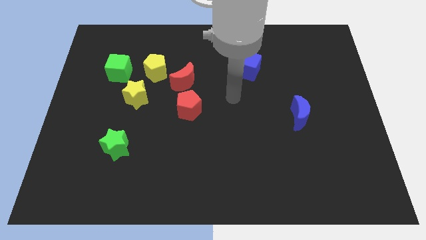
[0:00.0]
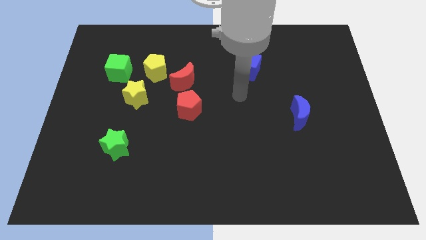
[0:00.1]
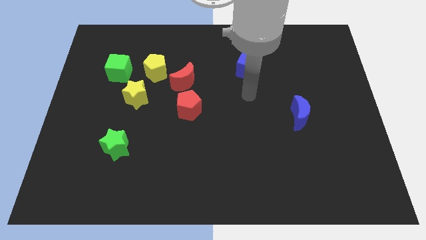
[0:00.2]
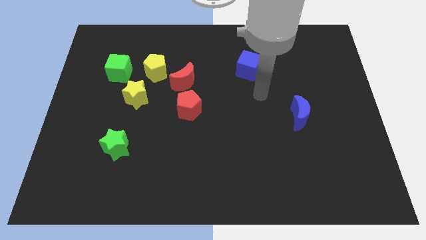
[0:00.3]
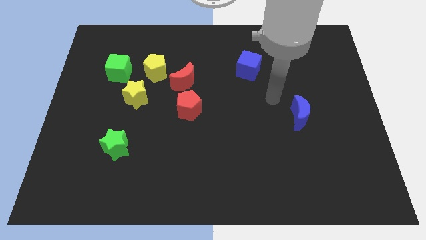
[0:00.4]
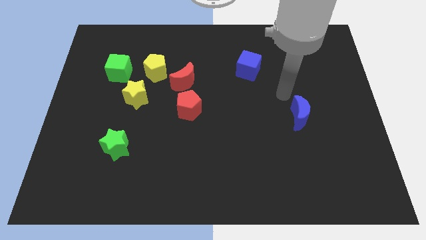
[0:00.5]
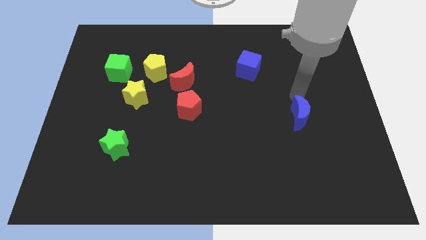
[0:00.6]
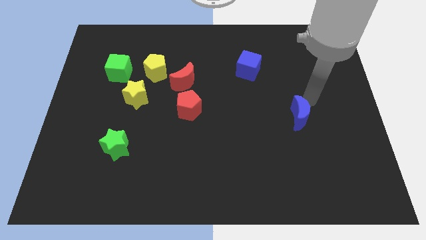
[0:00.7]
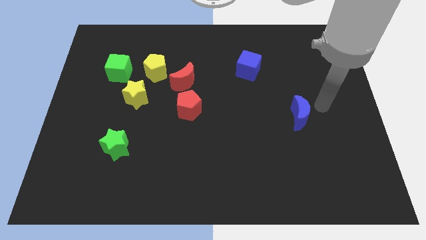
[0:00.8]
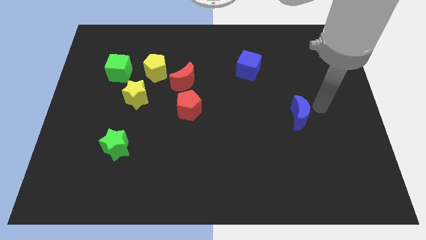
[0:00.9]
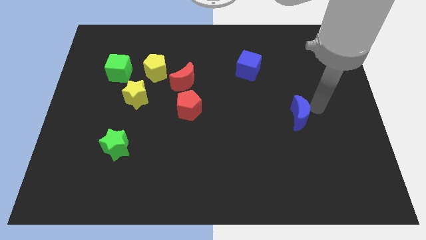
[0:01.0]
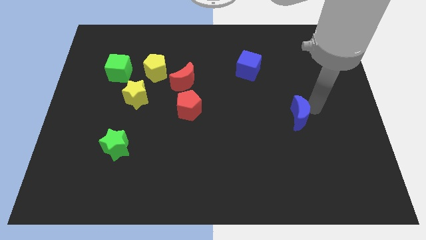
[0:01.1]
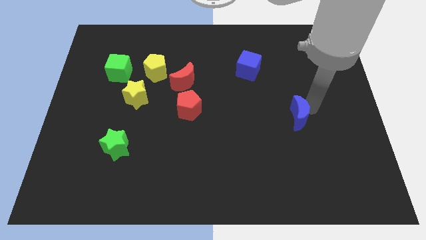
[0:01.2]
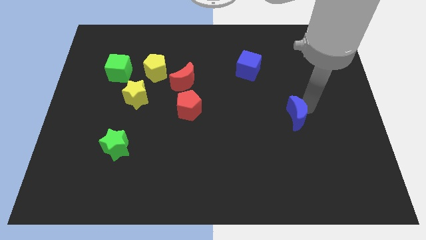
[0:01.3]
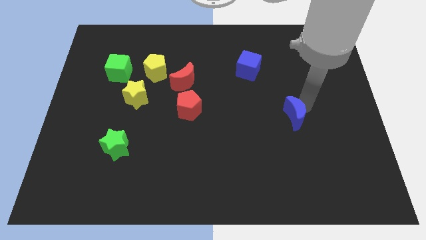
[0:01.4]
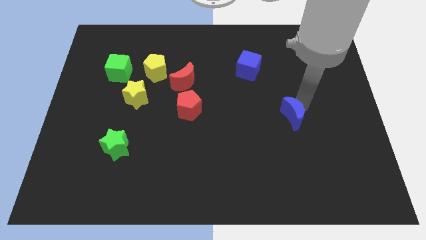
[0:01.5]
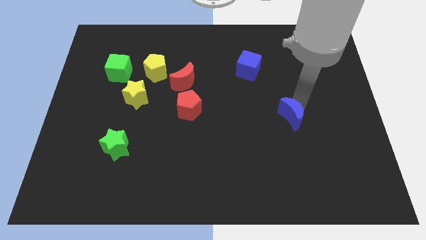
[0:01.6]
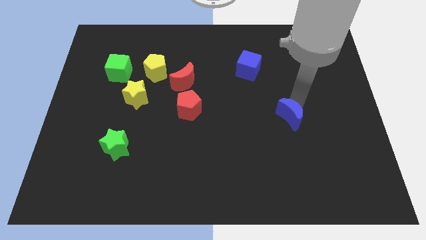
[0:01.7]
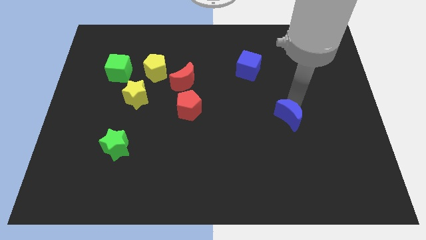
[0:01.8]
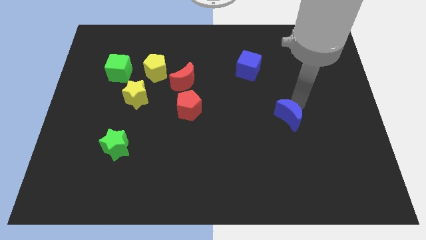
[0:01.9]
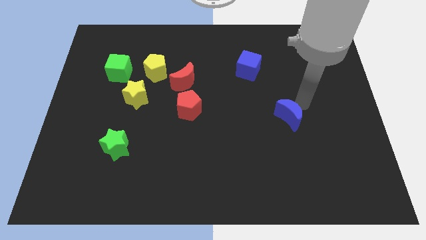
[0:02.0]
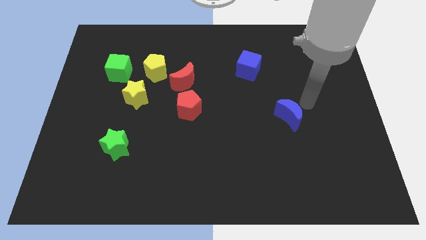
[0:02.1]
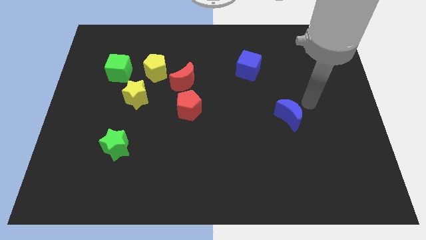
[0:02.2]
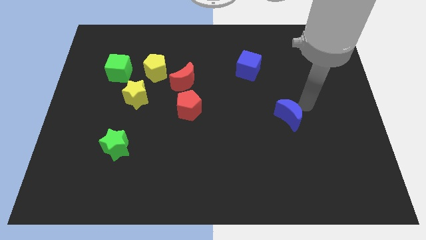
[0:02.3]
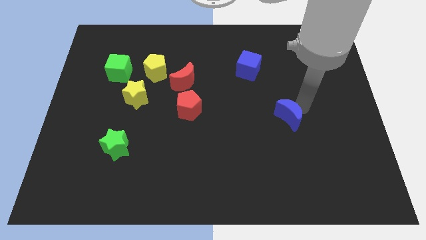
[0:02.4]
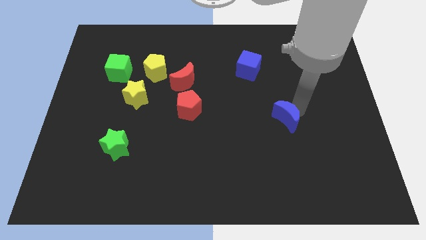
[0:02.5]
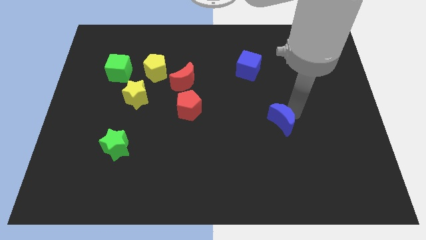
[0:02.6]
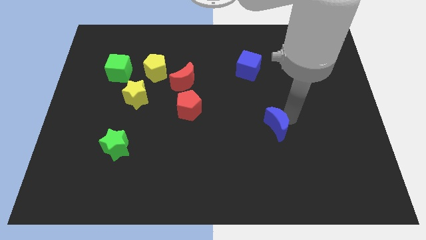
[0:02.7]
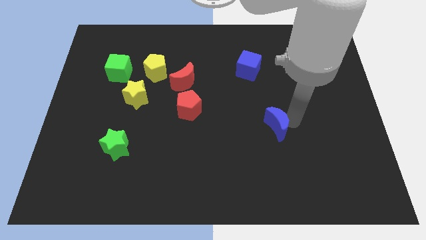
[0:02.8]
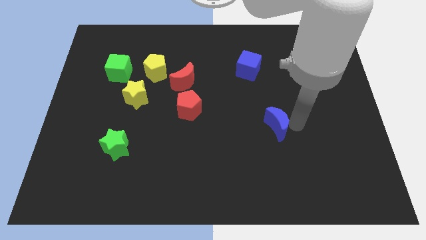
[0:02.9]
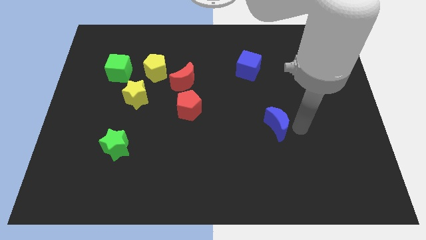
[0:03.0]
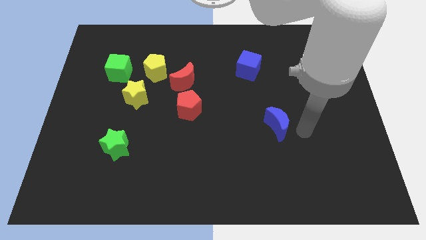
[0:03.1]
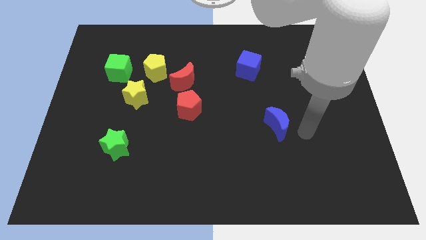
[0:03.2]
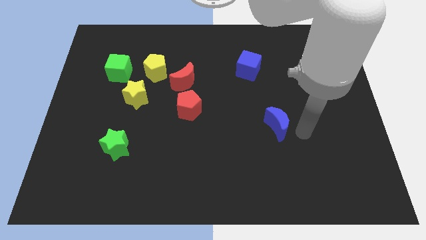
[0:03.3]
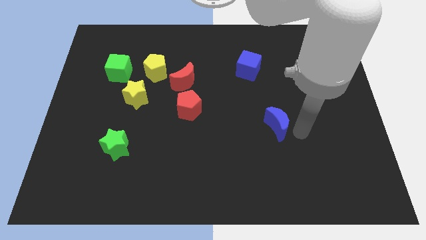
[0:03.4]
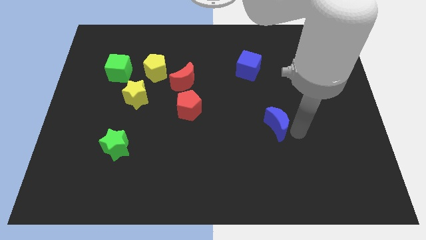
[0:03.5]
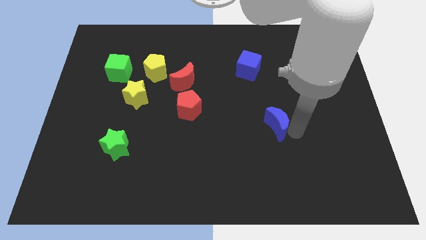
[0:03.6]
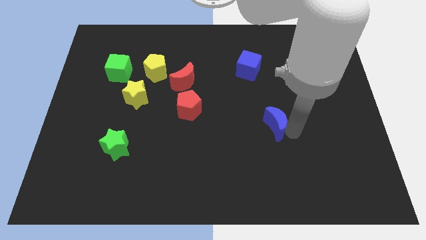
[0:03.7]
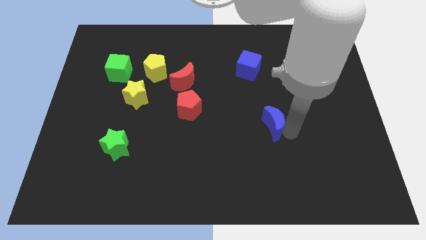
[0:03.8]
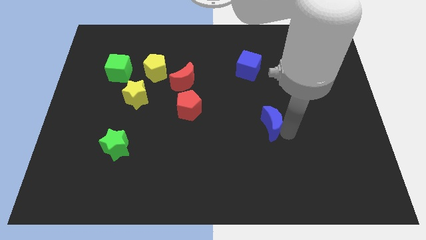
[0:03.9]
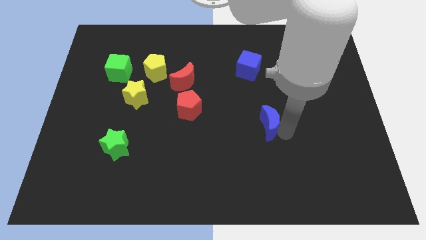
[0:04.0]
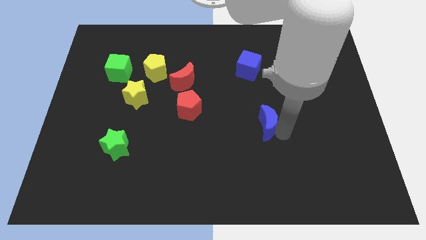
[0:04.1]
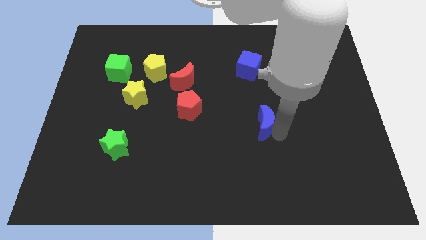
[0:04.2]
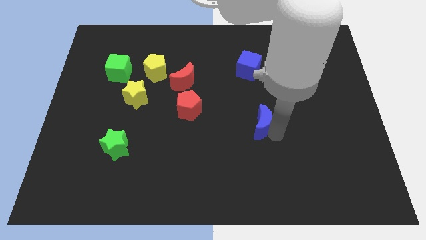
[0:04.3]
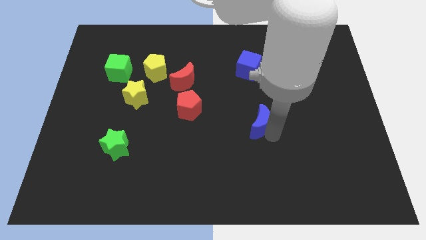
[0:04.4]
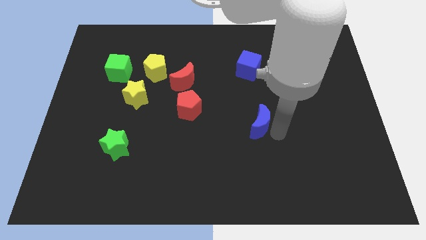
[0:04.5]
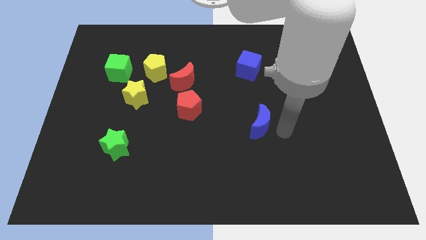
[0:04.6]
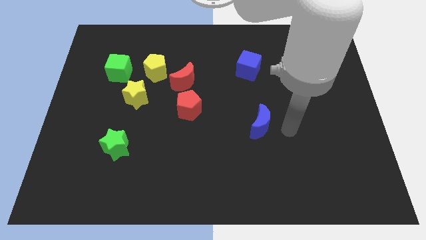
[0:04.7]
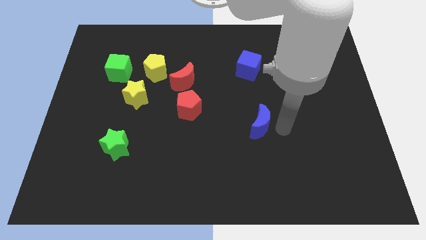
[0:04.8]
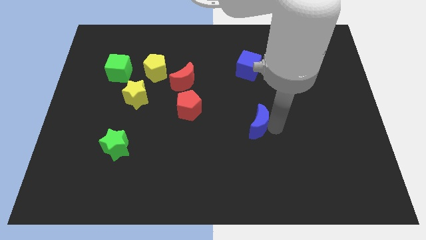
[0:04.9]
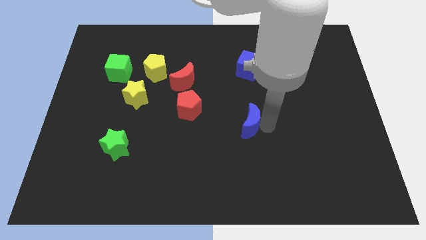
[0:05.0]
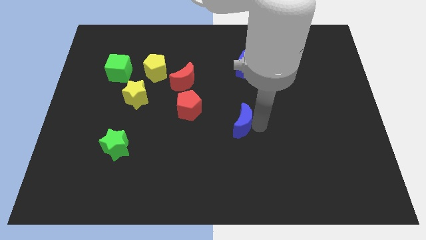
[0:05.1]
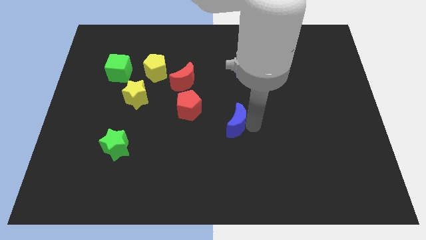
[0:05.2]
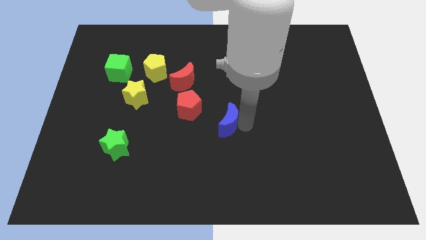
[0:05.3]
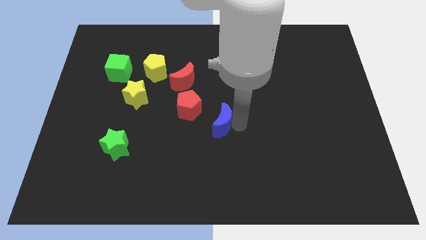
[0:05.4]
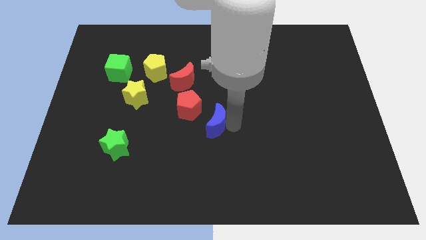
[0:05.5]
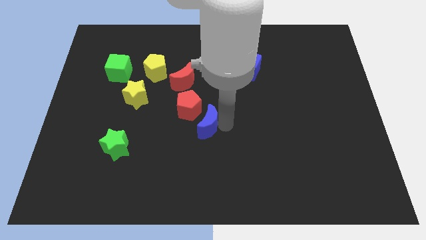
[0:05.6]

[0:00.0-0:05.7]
slide the blue moon to the left

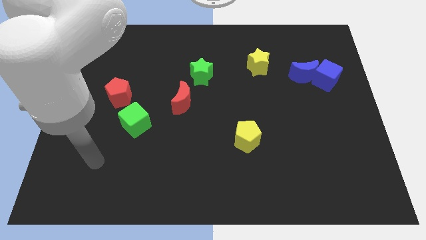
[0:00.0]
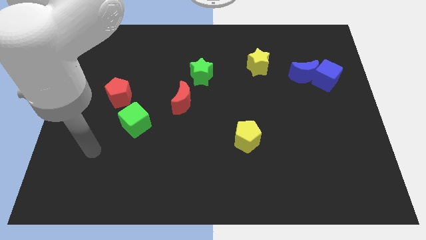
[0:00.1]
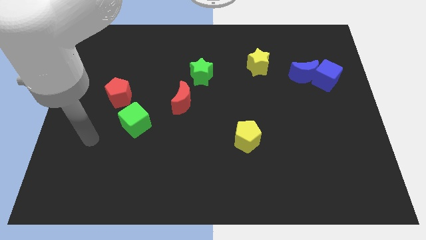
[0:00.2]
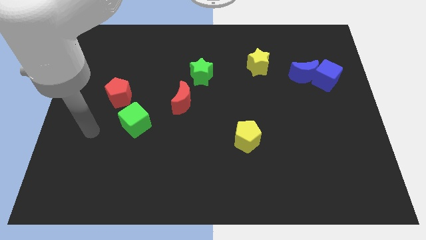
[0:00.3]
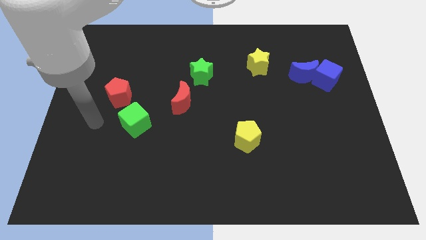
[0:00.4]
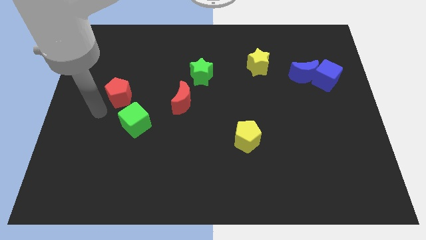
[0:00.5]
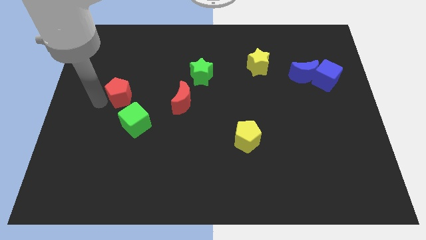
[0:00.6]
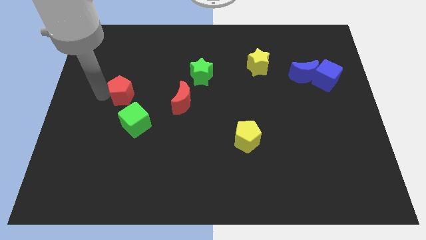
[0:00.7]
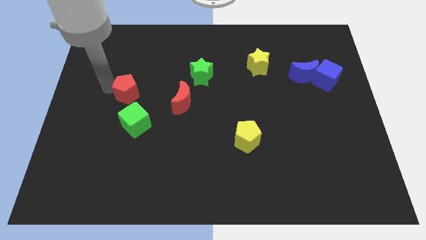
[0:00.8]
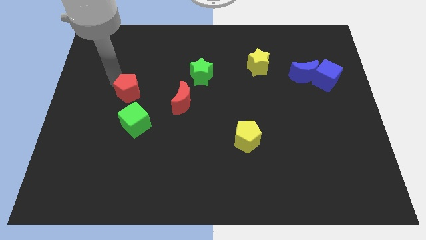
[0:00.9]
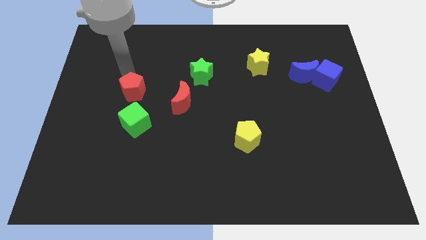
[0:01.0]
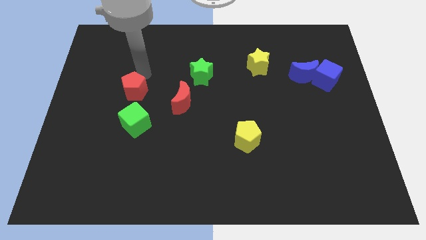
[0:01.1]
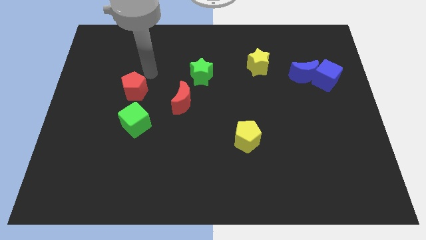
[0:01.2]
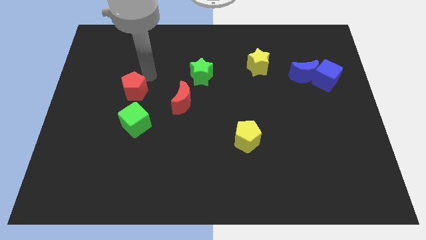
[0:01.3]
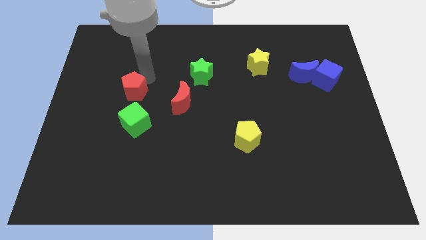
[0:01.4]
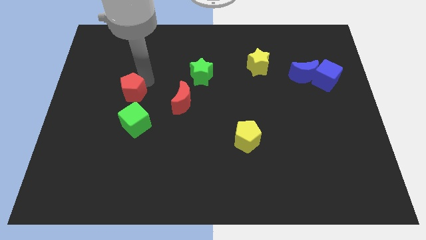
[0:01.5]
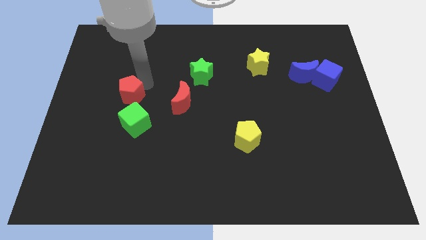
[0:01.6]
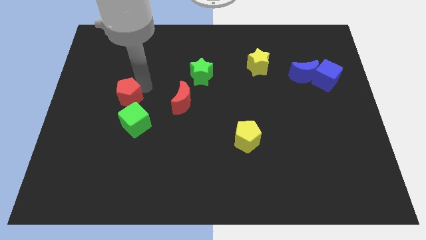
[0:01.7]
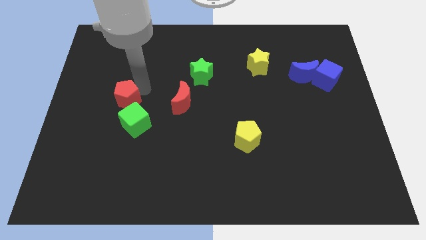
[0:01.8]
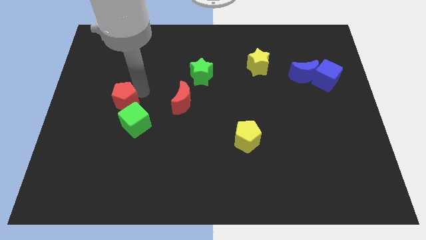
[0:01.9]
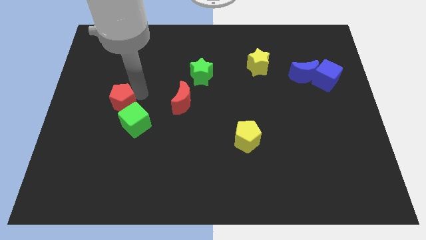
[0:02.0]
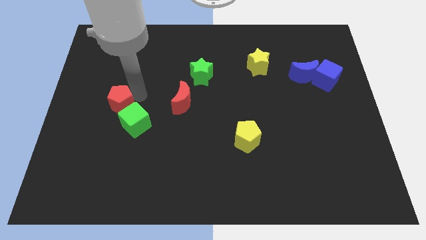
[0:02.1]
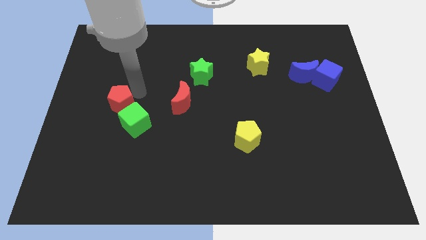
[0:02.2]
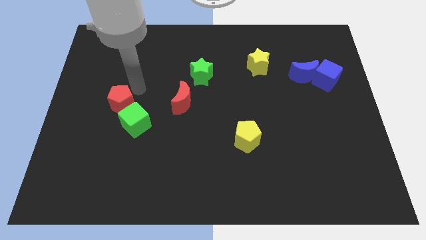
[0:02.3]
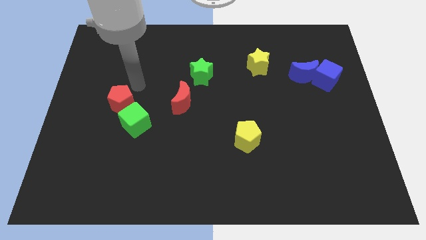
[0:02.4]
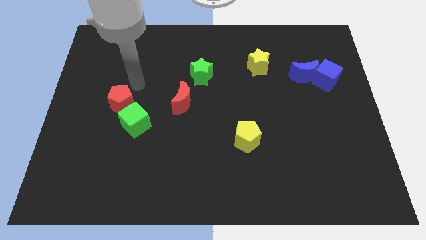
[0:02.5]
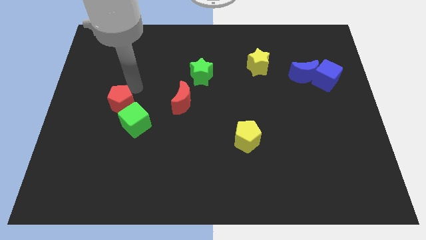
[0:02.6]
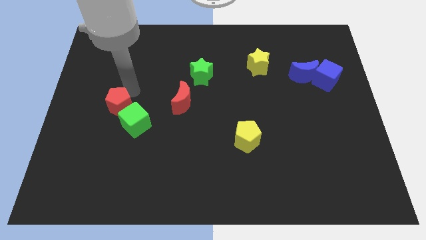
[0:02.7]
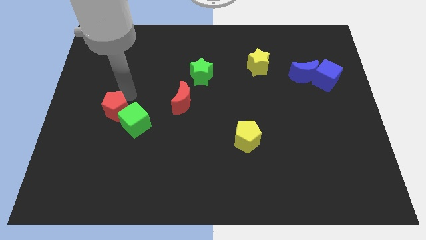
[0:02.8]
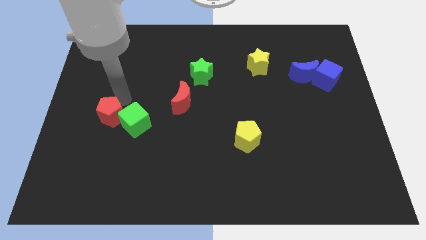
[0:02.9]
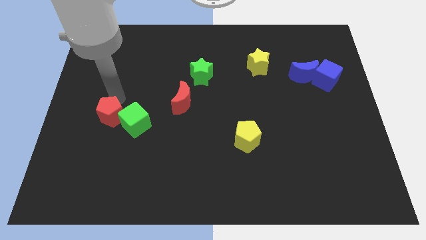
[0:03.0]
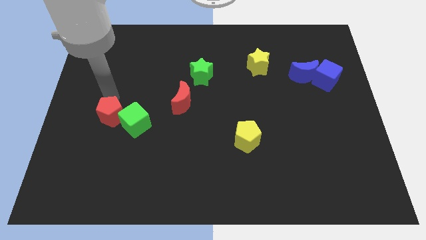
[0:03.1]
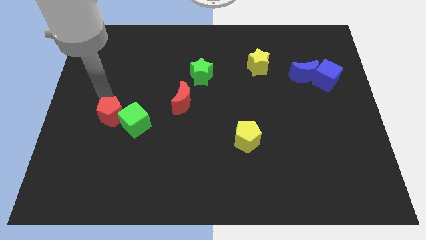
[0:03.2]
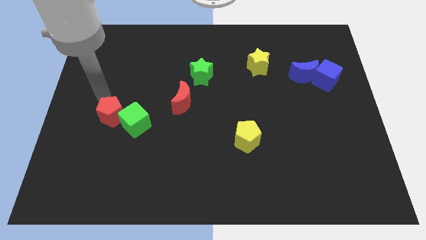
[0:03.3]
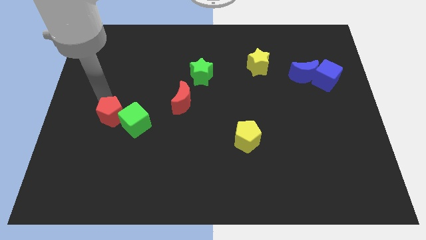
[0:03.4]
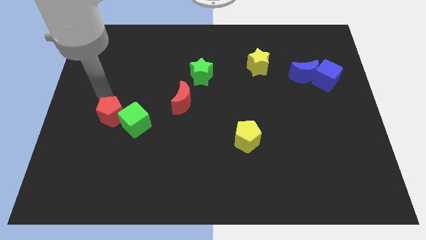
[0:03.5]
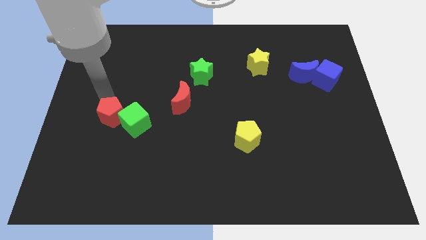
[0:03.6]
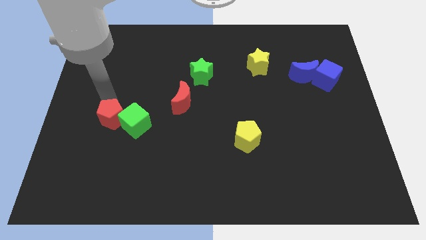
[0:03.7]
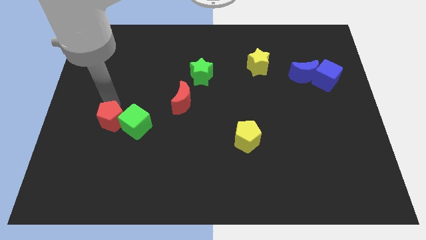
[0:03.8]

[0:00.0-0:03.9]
push the red pentagon somewhat down
